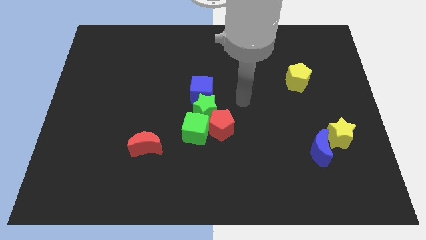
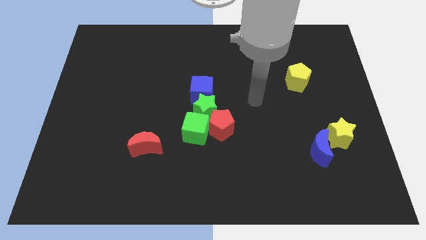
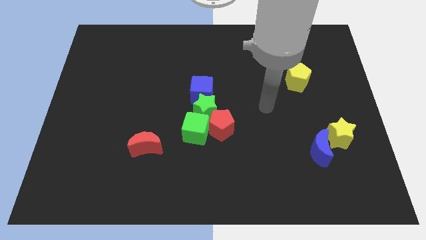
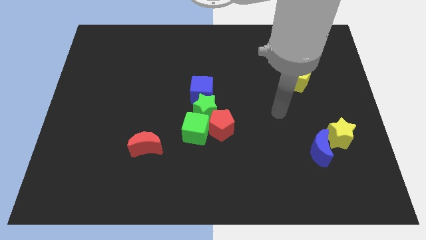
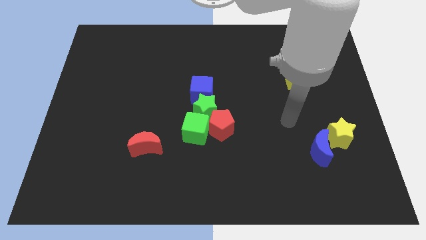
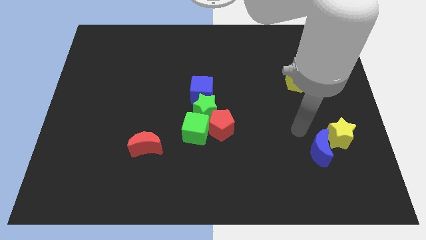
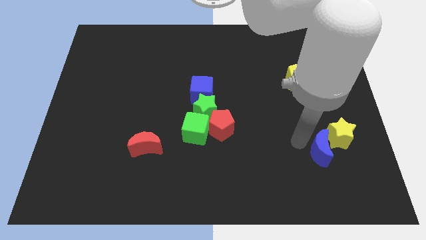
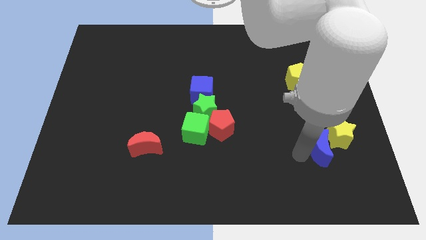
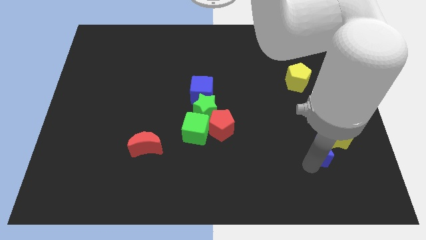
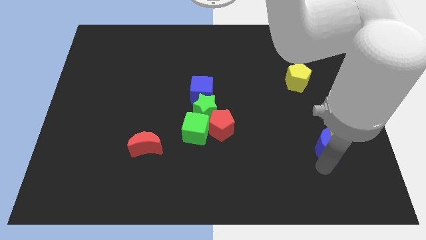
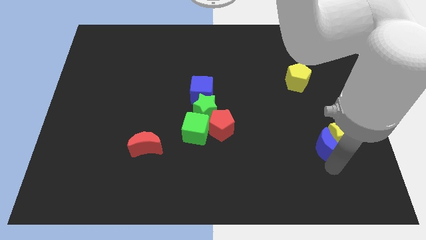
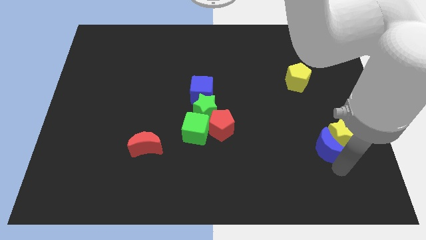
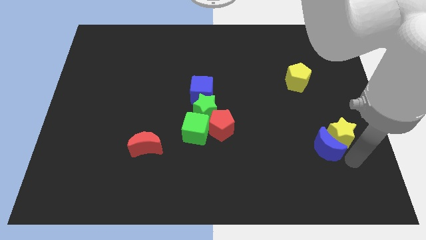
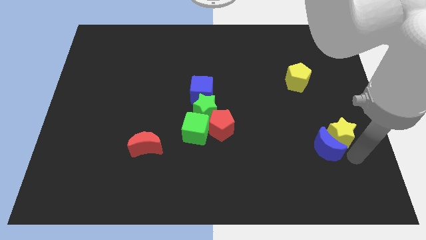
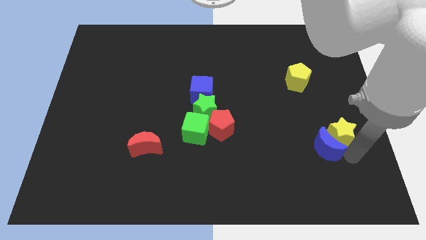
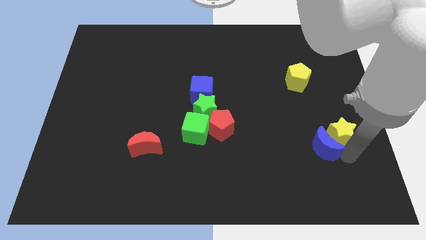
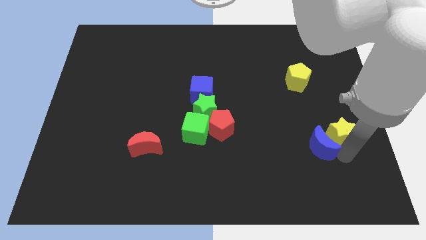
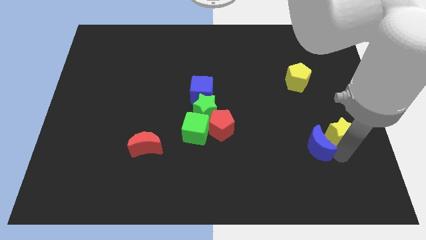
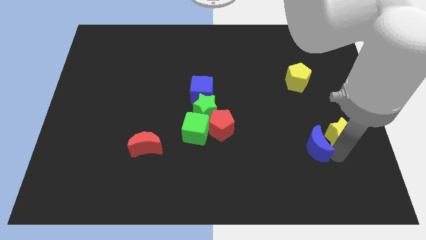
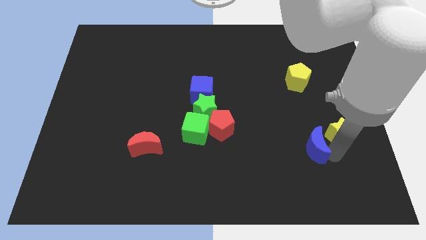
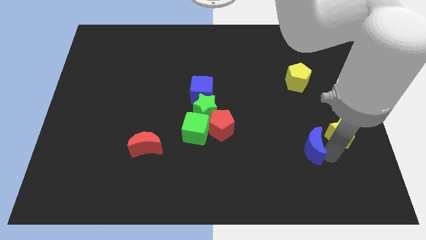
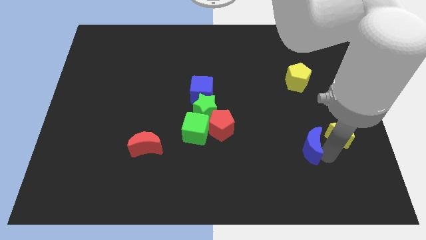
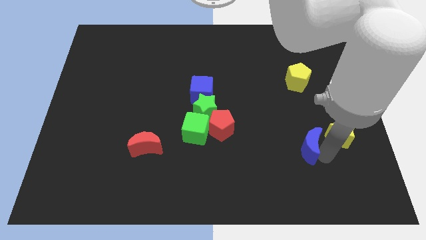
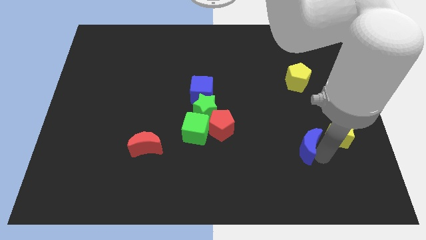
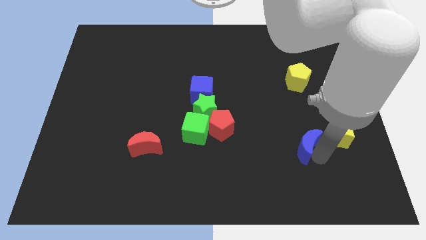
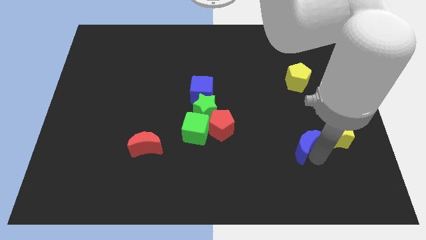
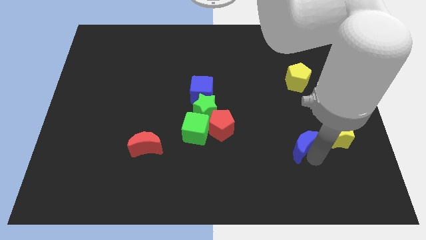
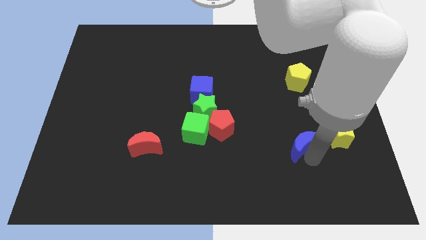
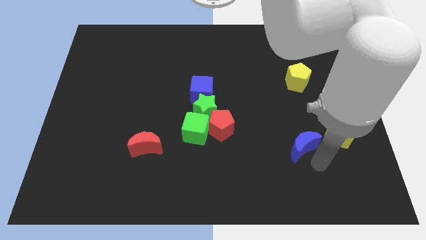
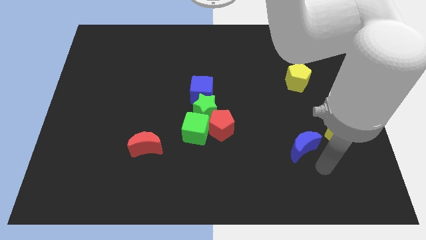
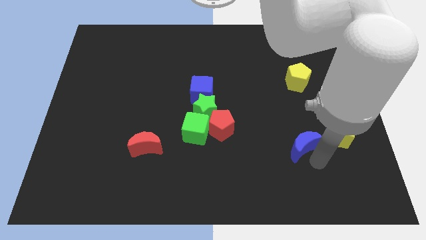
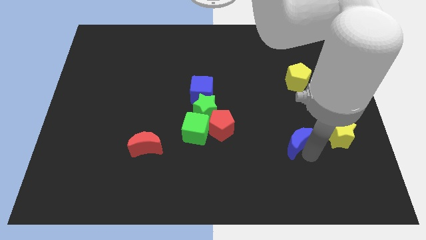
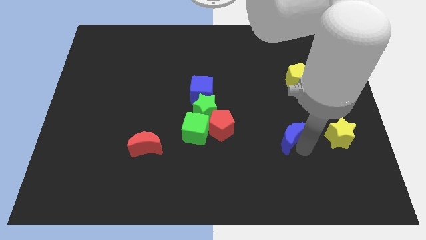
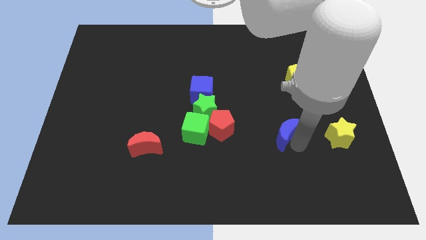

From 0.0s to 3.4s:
push the blue moon up and to the left diagonally a bit

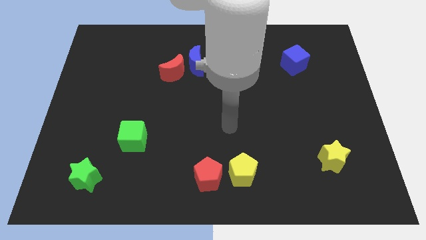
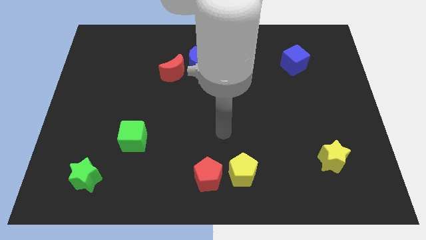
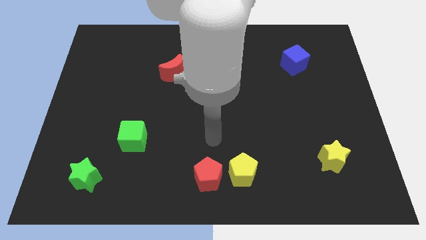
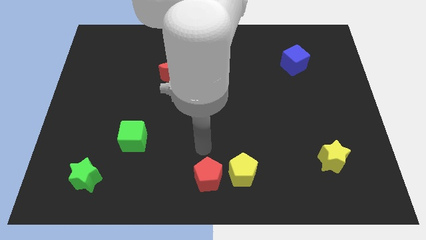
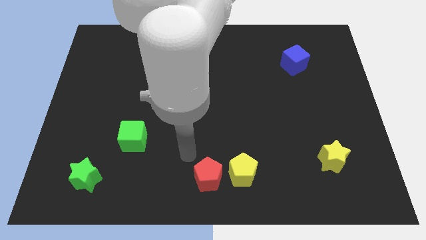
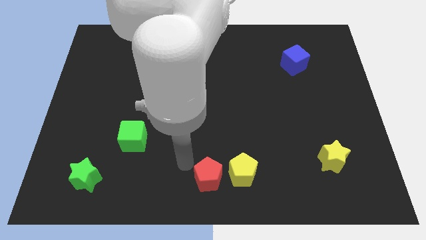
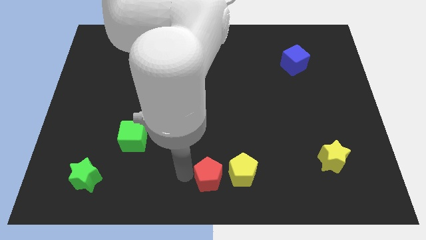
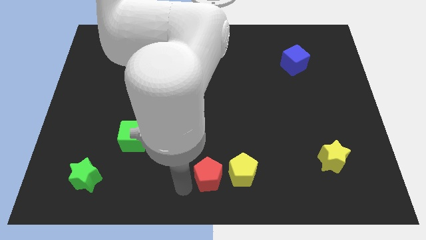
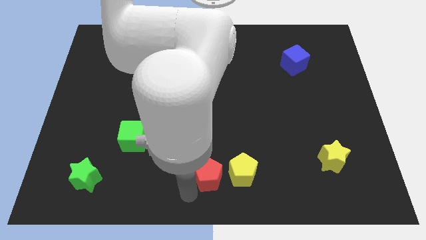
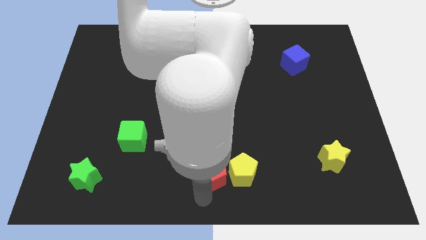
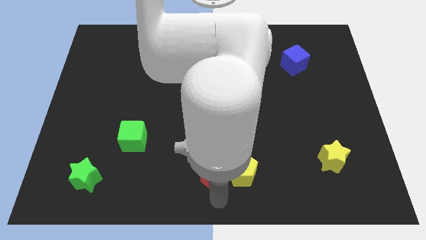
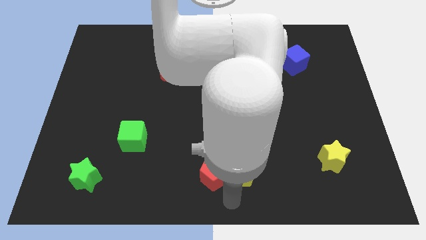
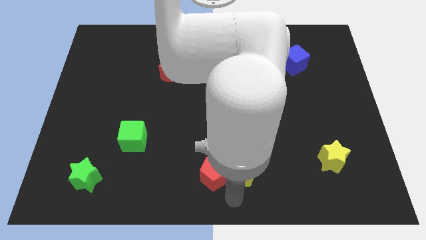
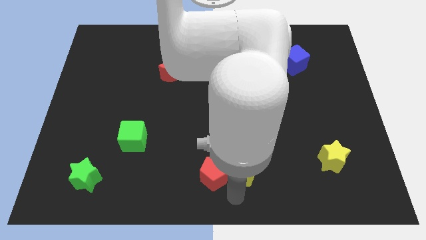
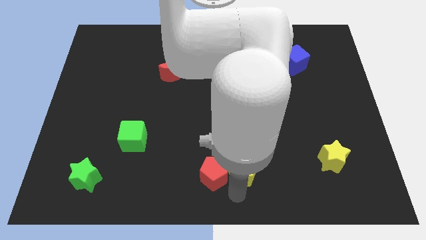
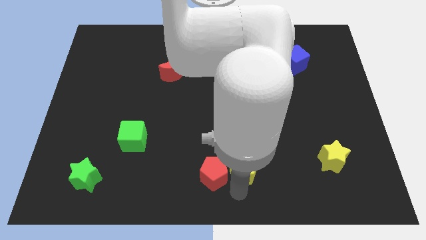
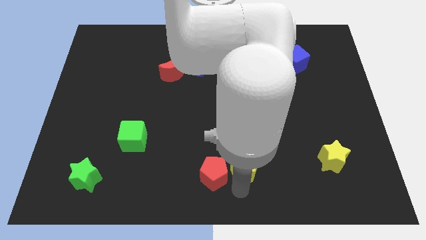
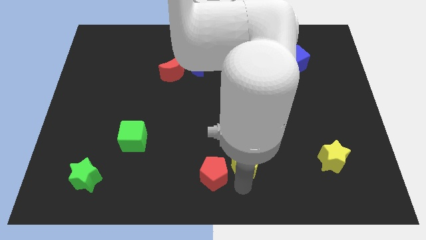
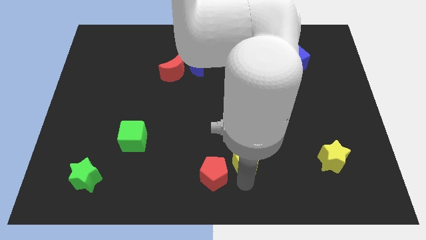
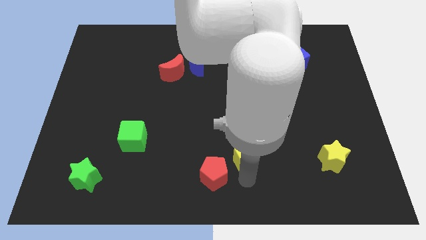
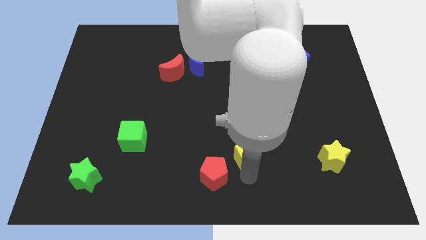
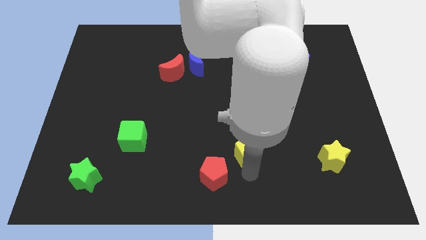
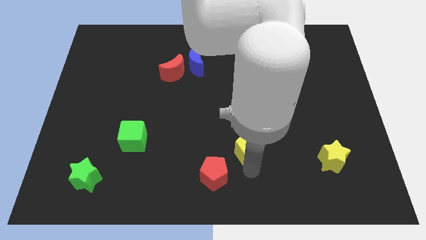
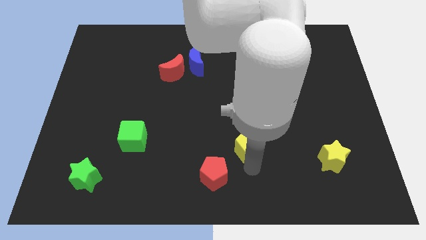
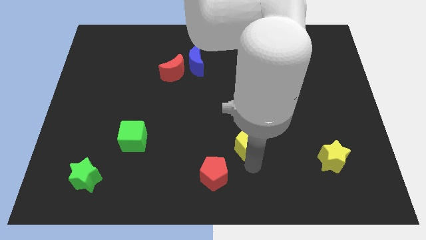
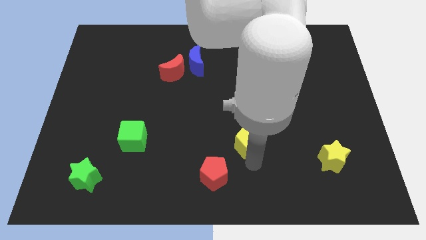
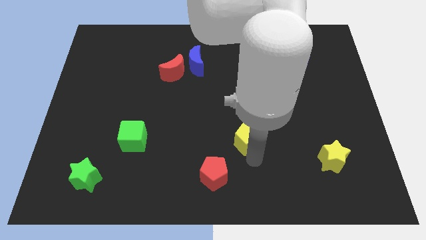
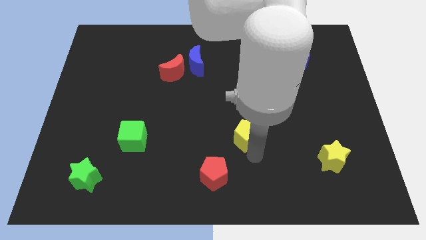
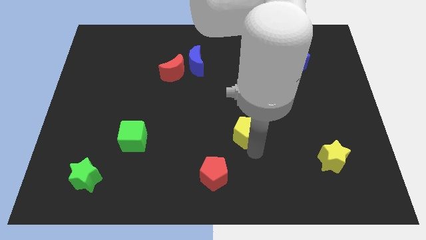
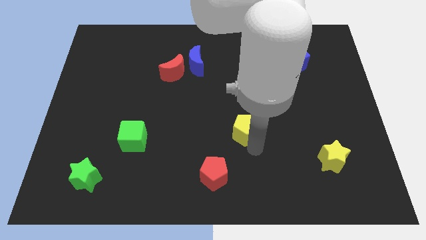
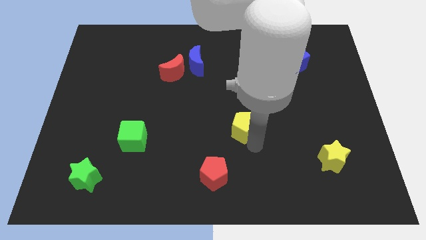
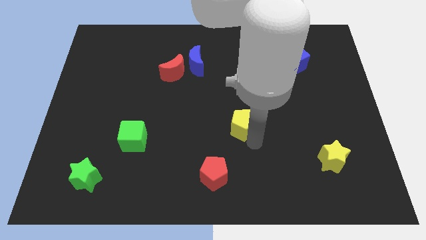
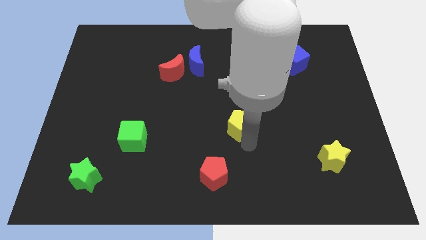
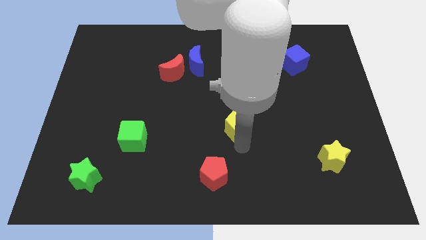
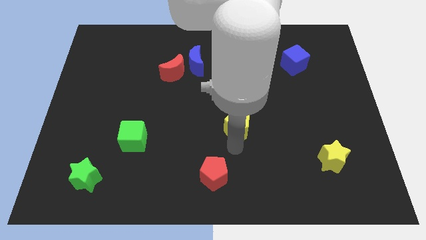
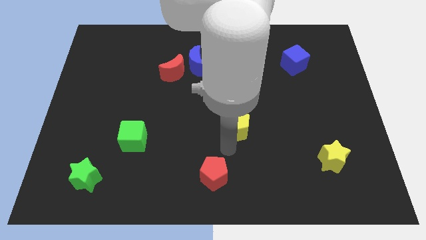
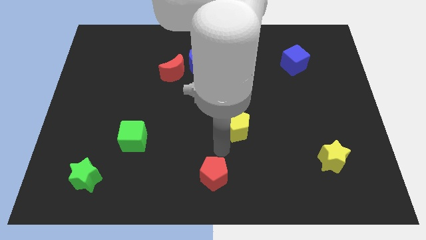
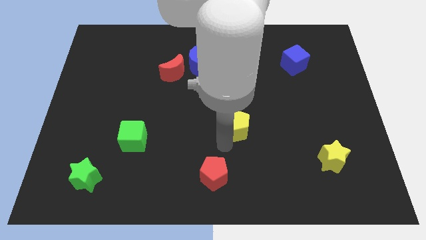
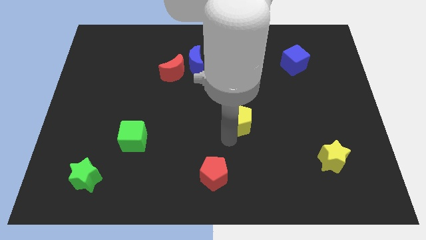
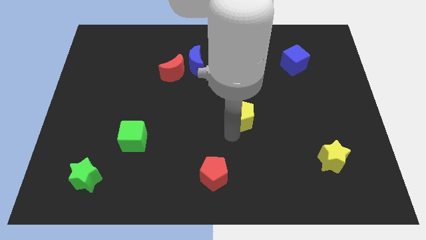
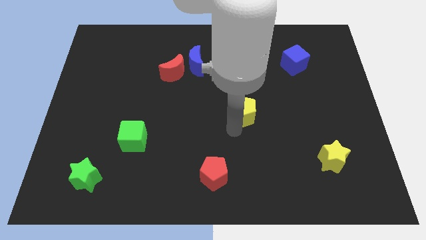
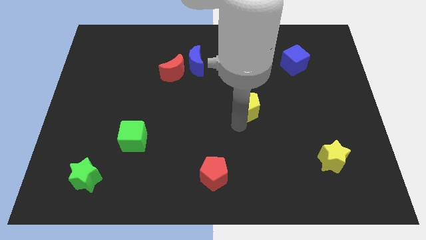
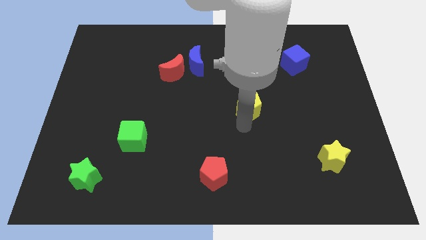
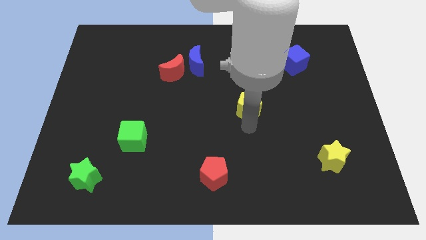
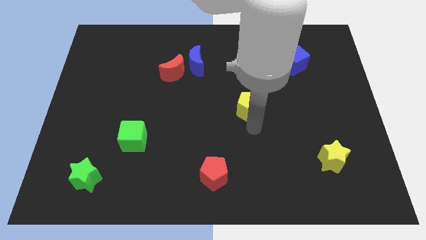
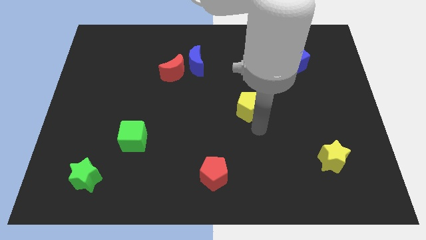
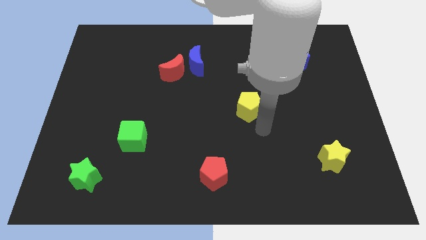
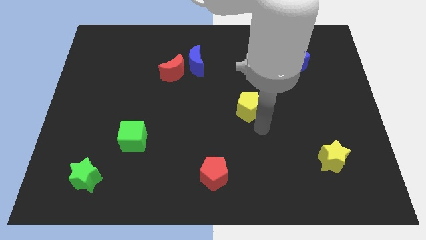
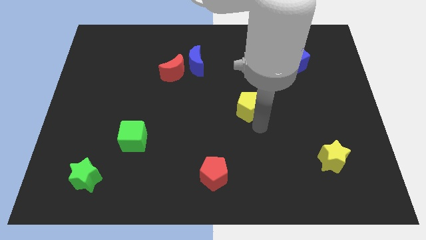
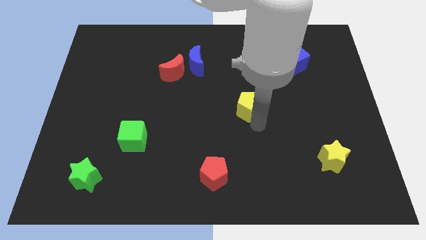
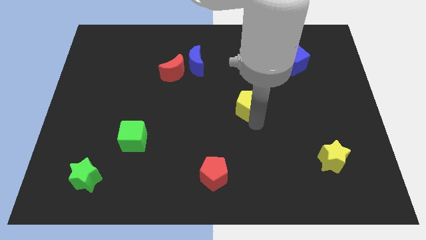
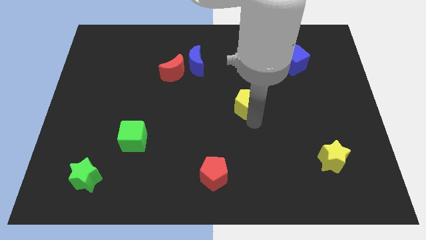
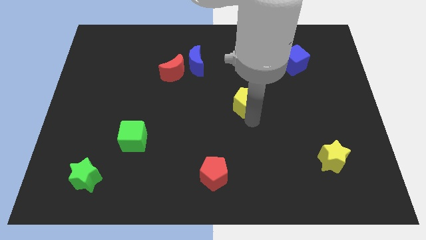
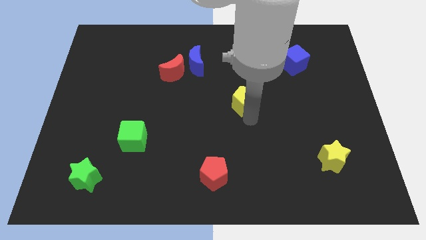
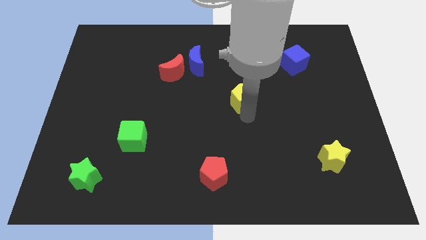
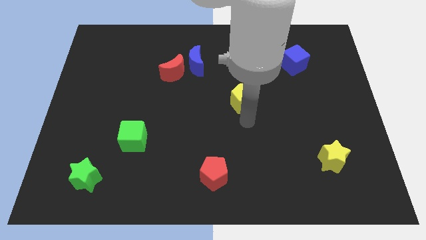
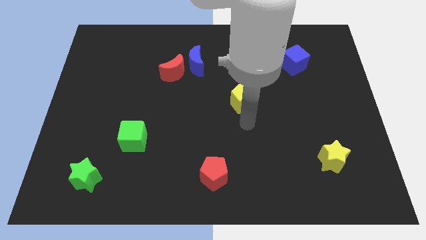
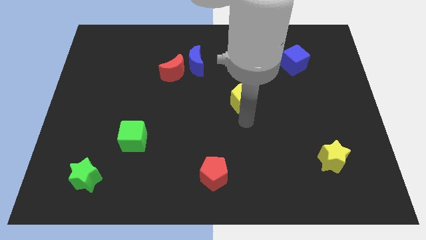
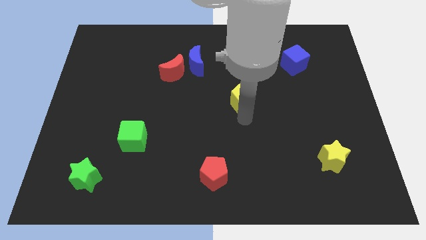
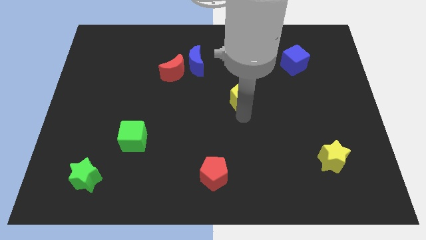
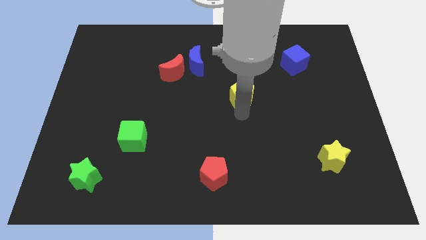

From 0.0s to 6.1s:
move the yellow pentagon up
